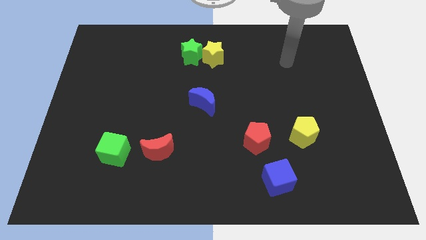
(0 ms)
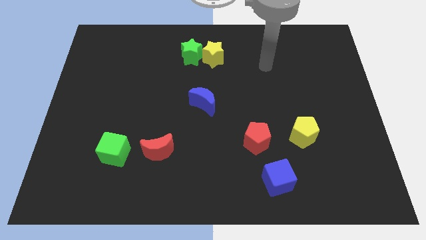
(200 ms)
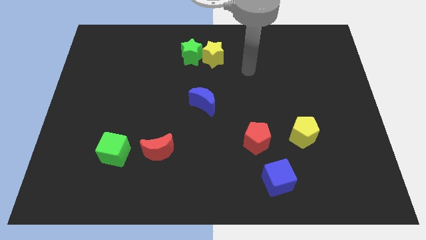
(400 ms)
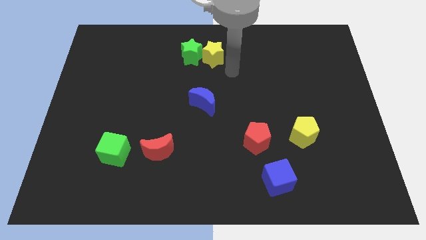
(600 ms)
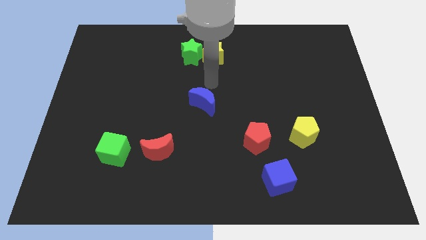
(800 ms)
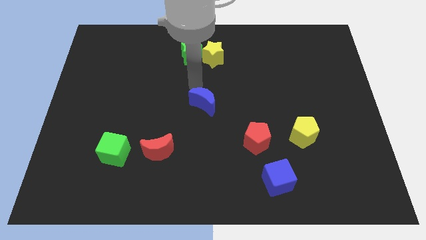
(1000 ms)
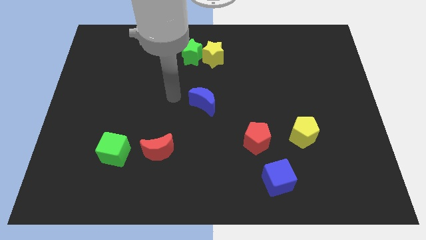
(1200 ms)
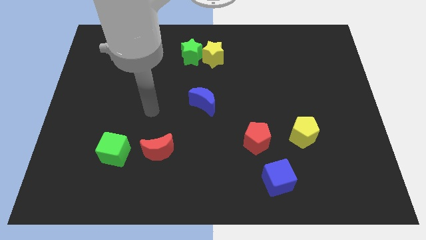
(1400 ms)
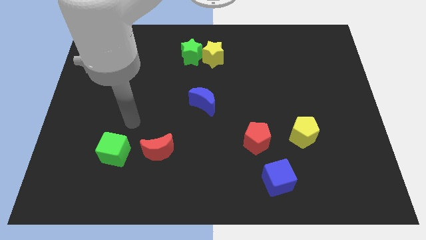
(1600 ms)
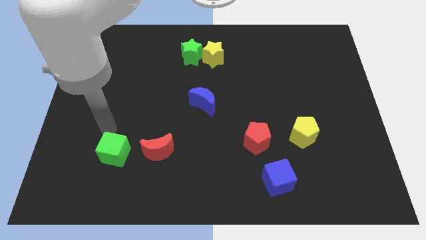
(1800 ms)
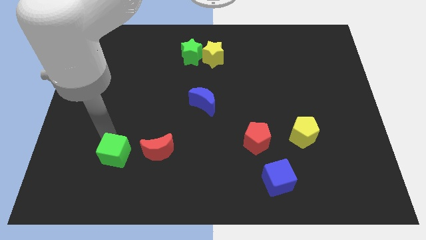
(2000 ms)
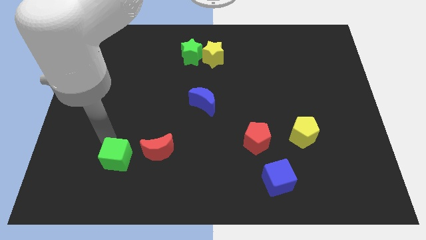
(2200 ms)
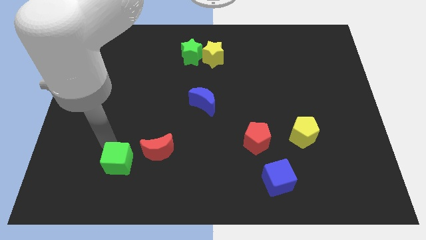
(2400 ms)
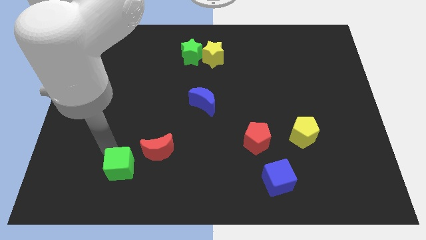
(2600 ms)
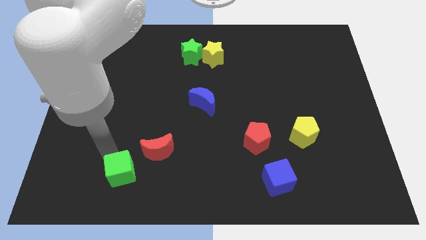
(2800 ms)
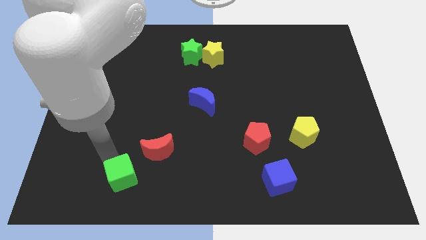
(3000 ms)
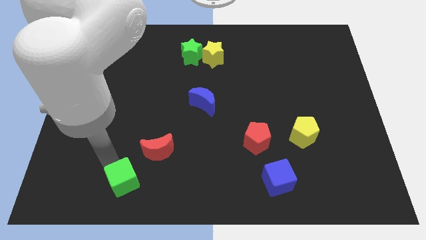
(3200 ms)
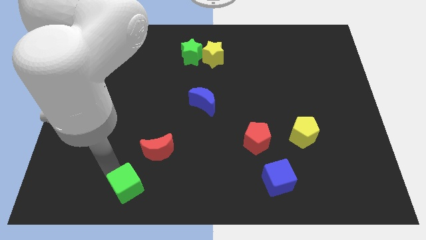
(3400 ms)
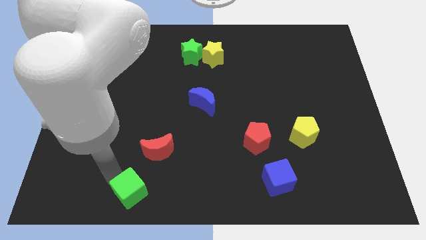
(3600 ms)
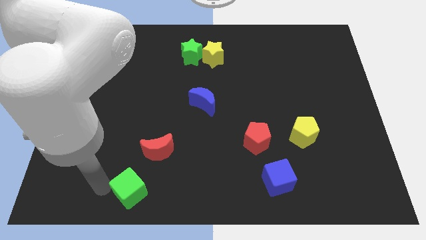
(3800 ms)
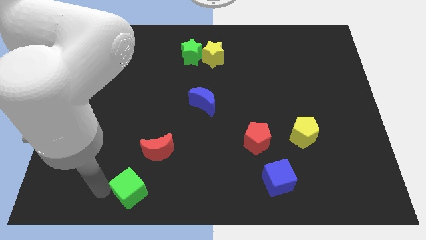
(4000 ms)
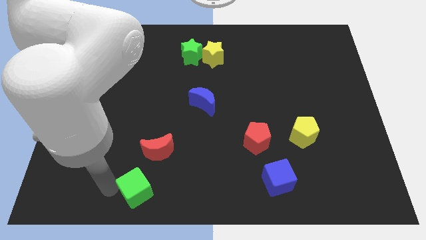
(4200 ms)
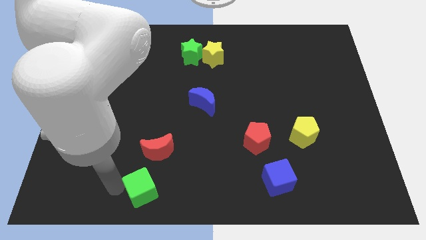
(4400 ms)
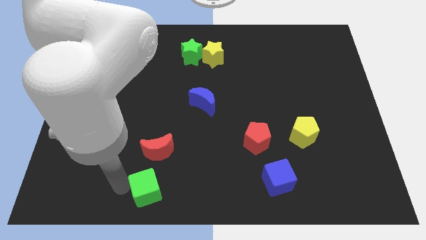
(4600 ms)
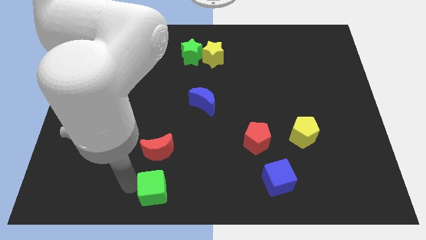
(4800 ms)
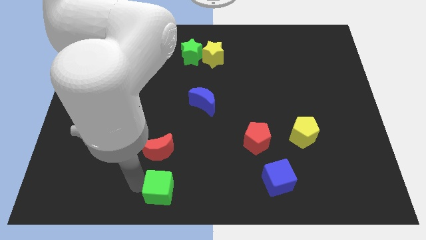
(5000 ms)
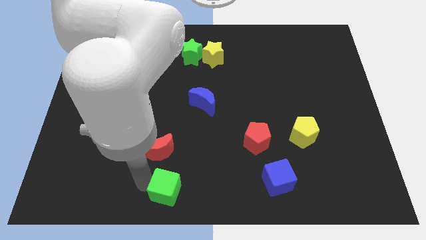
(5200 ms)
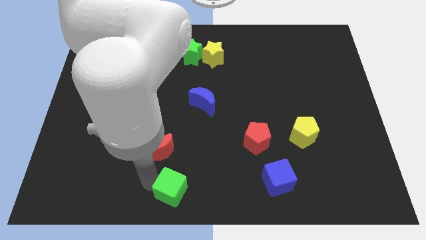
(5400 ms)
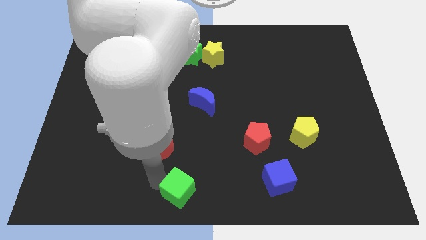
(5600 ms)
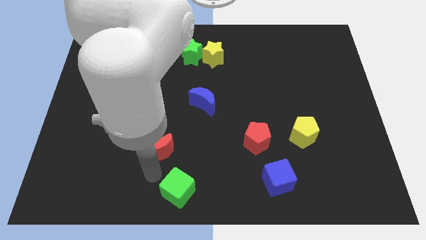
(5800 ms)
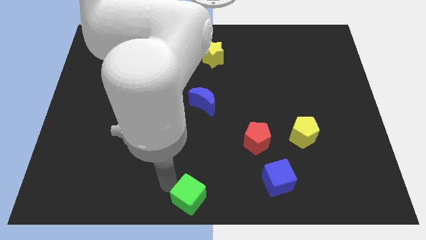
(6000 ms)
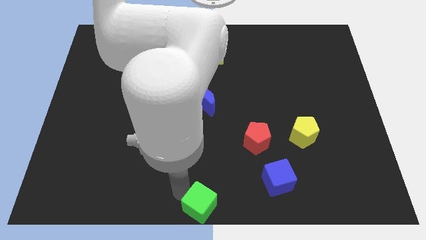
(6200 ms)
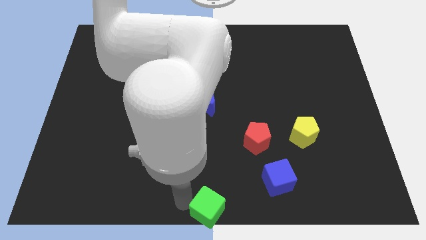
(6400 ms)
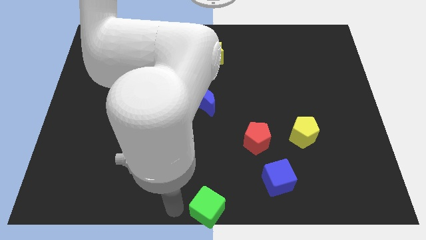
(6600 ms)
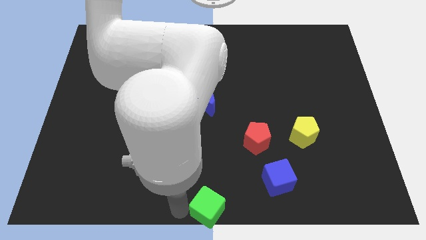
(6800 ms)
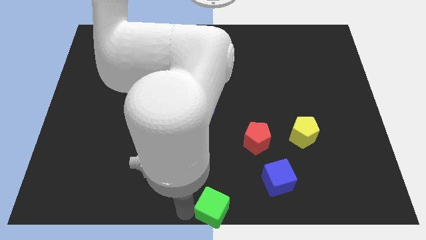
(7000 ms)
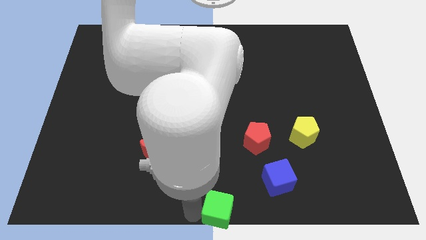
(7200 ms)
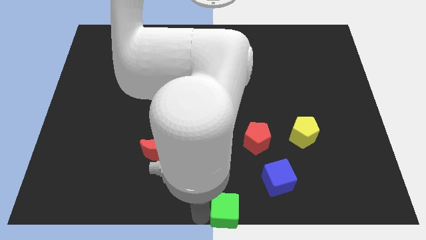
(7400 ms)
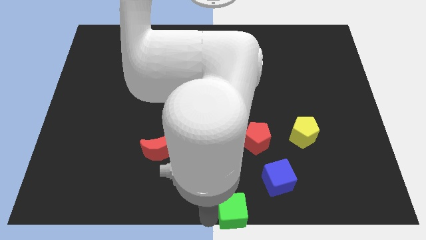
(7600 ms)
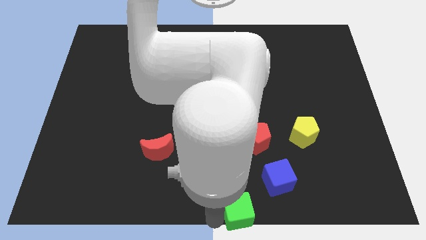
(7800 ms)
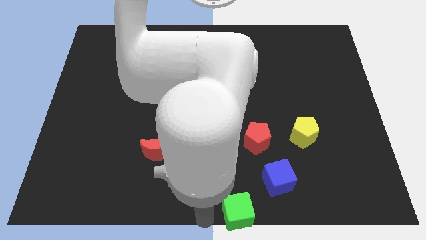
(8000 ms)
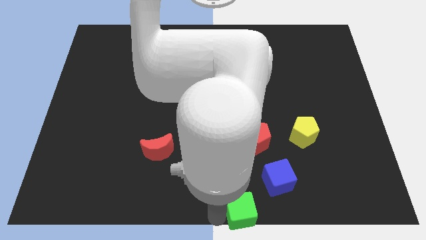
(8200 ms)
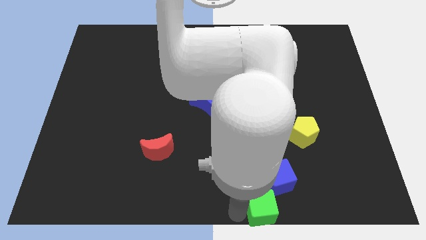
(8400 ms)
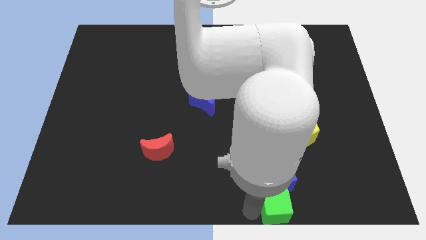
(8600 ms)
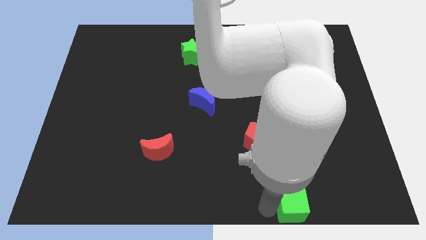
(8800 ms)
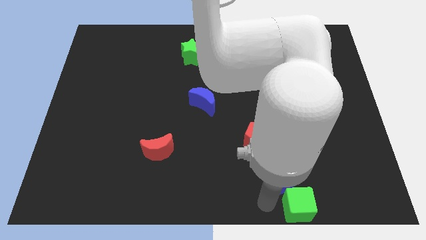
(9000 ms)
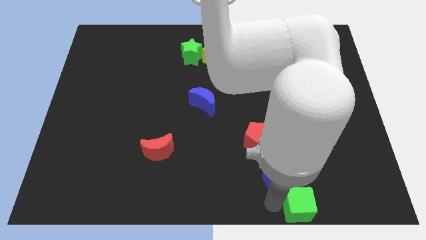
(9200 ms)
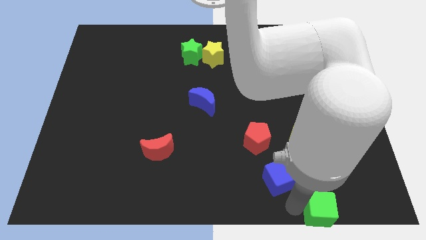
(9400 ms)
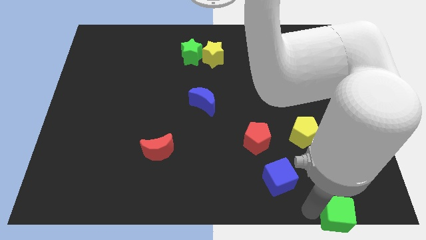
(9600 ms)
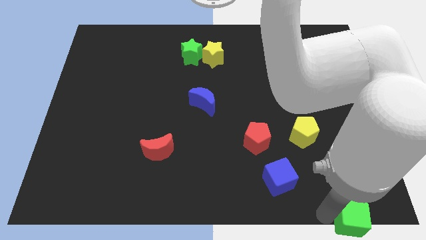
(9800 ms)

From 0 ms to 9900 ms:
slide the green cube to the bottom right corner

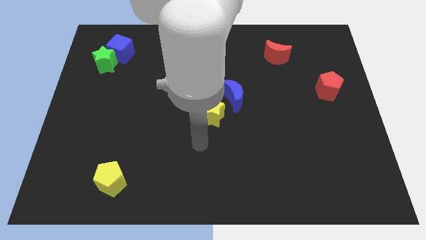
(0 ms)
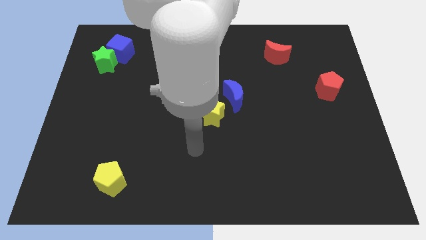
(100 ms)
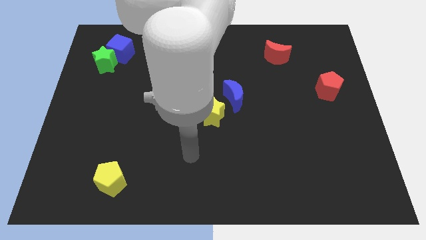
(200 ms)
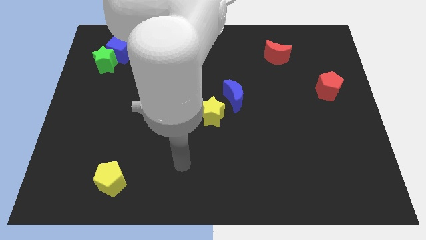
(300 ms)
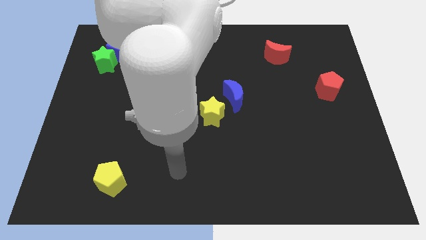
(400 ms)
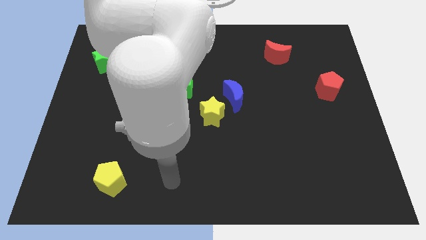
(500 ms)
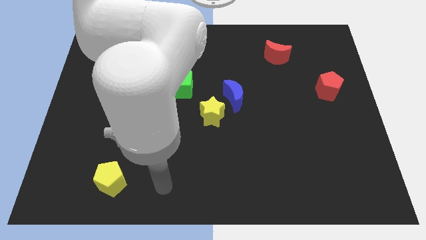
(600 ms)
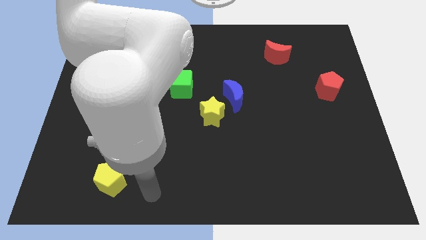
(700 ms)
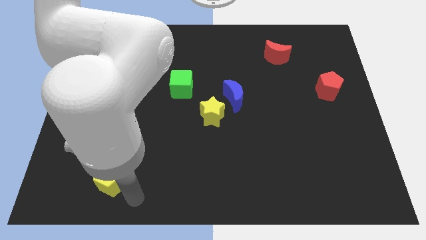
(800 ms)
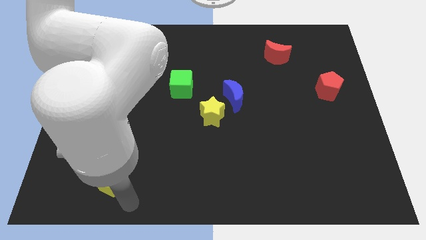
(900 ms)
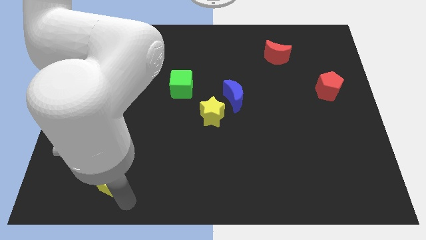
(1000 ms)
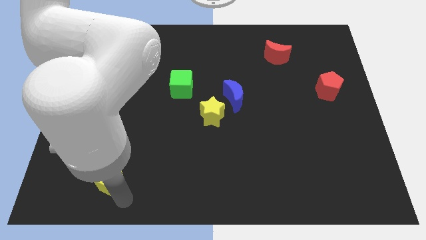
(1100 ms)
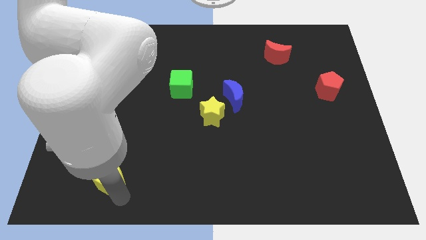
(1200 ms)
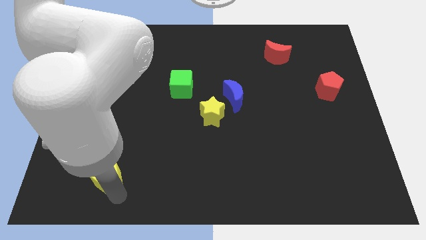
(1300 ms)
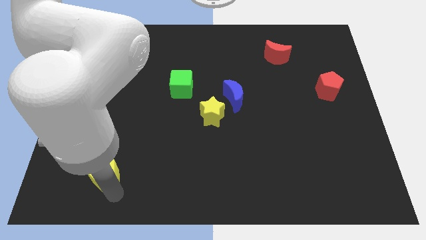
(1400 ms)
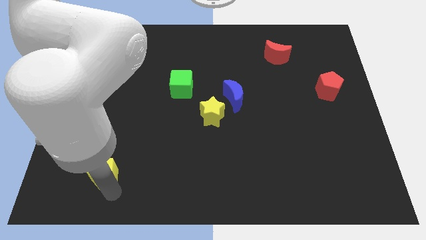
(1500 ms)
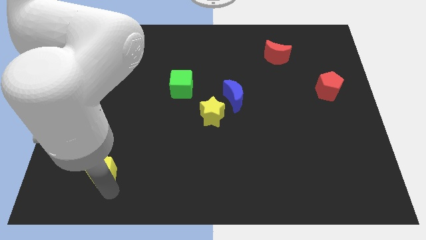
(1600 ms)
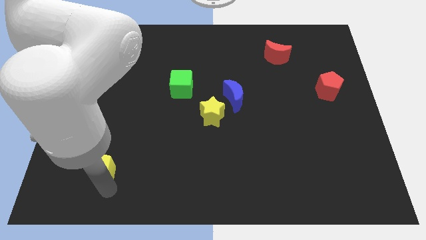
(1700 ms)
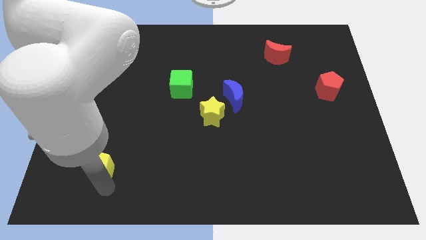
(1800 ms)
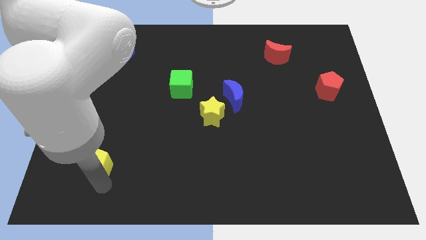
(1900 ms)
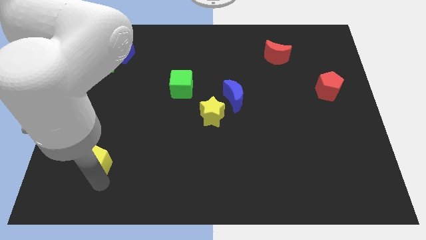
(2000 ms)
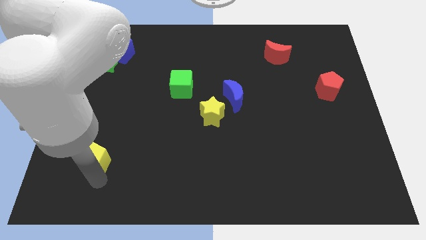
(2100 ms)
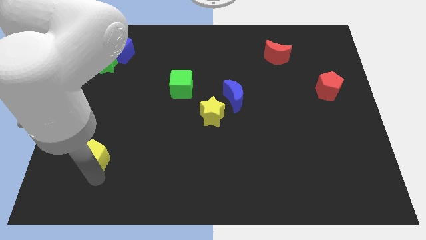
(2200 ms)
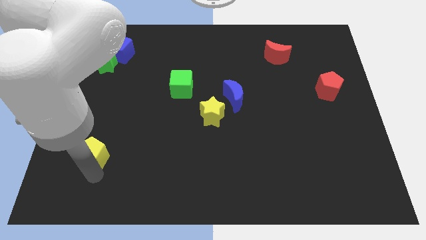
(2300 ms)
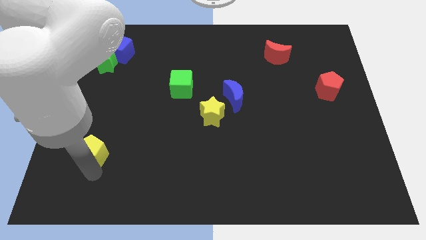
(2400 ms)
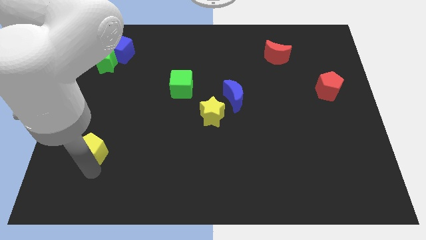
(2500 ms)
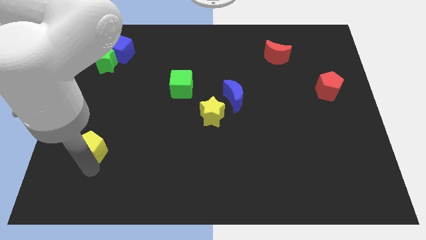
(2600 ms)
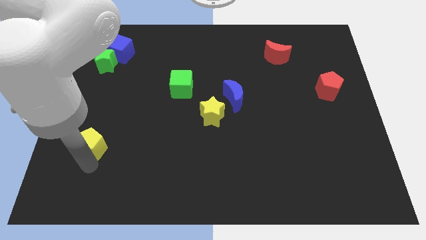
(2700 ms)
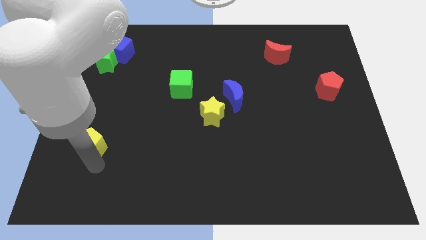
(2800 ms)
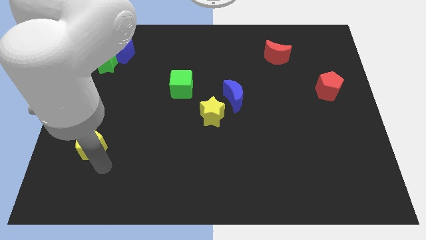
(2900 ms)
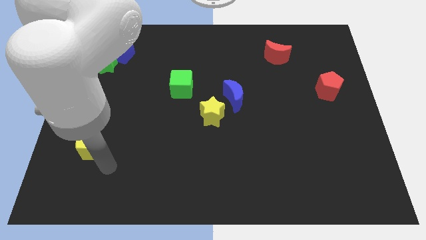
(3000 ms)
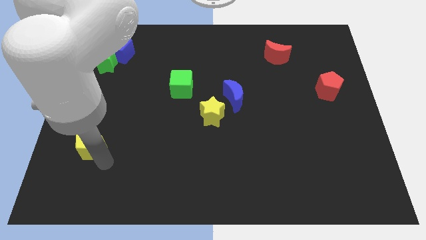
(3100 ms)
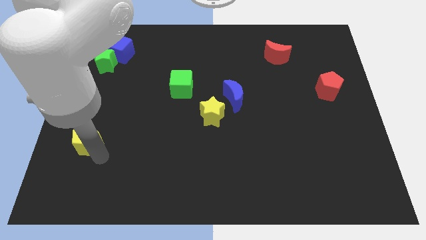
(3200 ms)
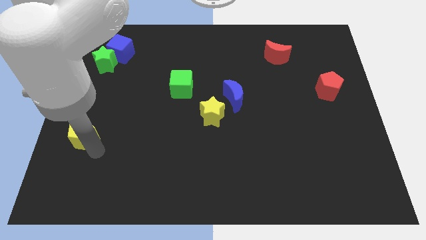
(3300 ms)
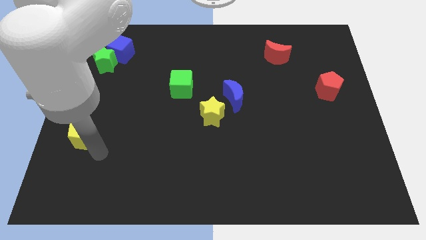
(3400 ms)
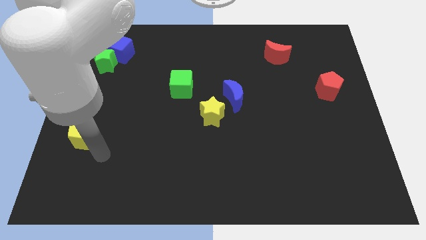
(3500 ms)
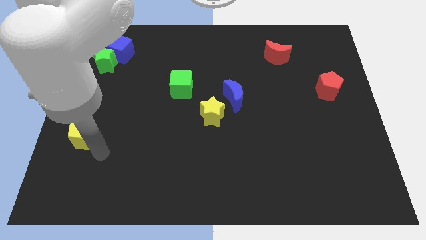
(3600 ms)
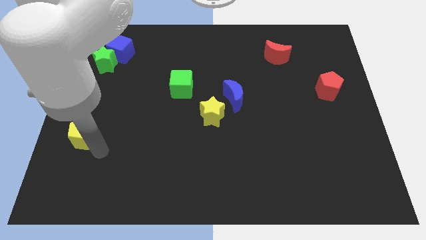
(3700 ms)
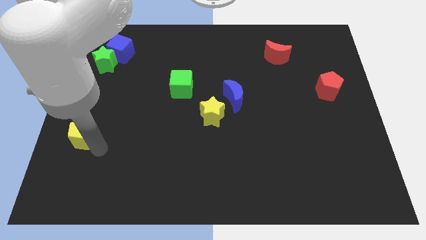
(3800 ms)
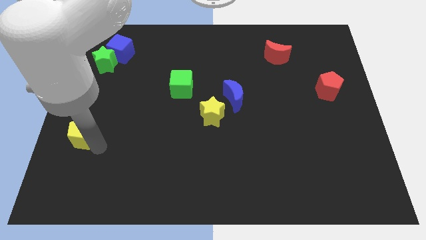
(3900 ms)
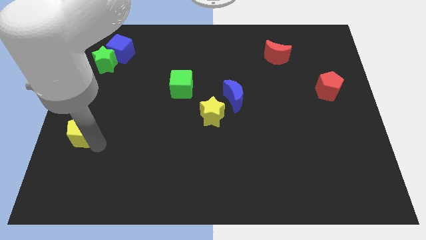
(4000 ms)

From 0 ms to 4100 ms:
push the yellow pentagon to the left side
